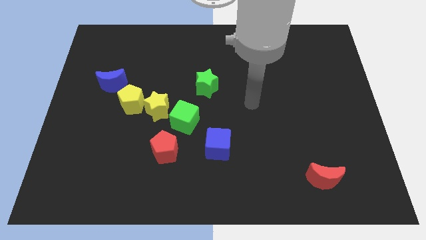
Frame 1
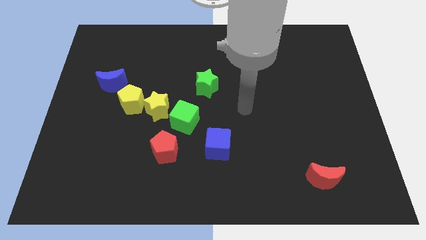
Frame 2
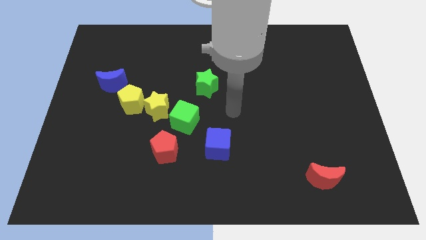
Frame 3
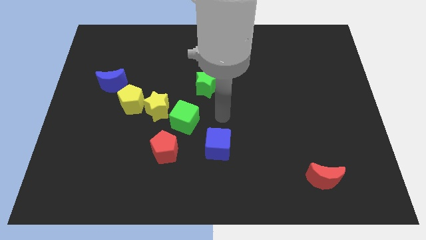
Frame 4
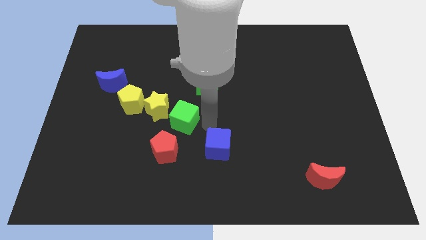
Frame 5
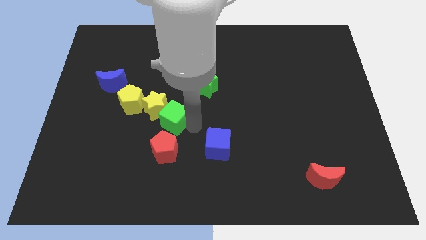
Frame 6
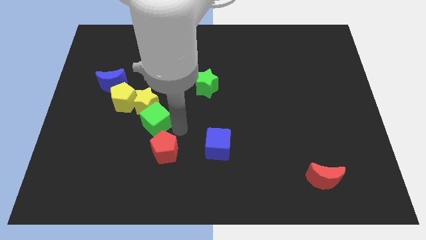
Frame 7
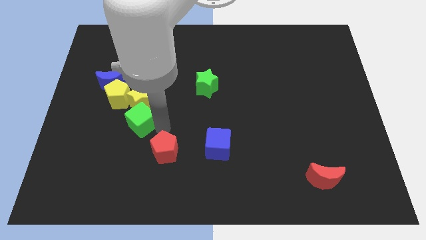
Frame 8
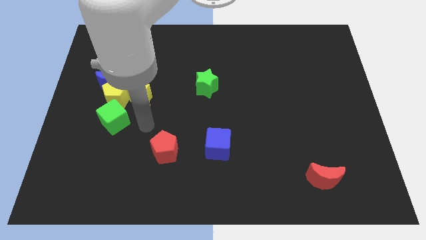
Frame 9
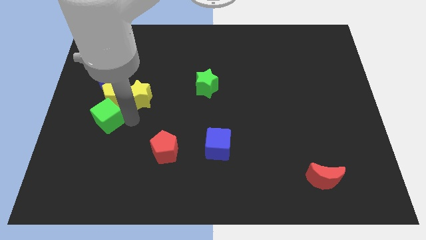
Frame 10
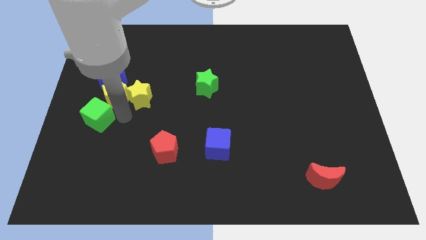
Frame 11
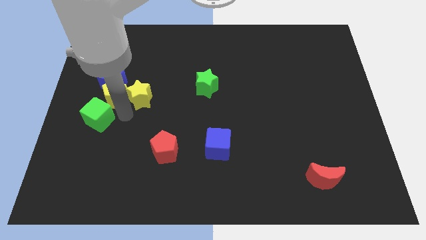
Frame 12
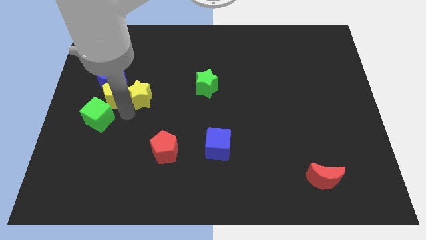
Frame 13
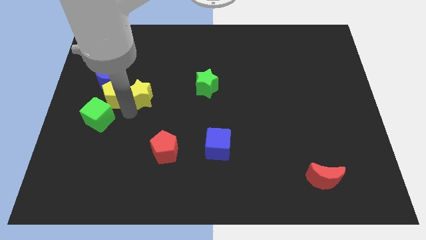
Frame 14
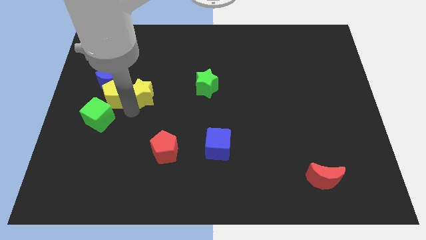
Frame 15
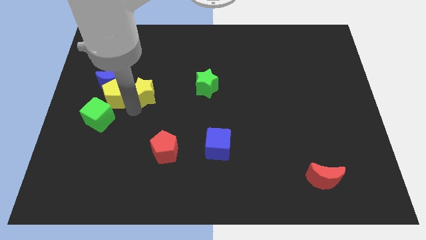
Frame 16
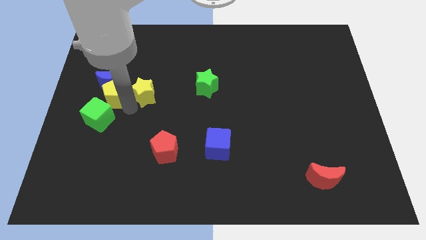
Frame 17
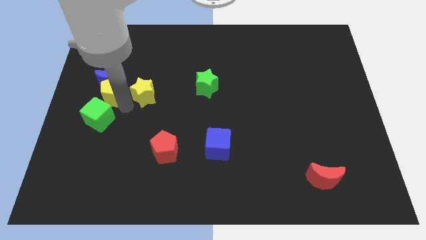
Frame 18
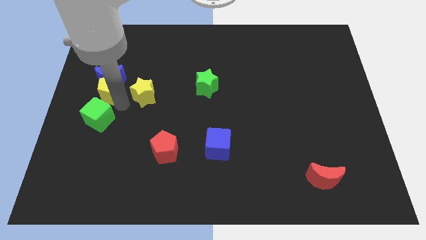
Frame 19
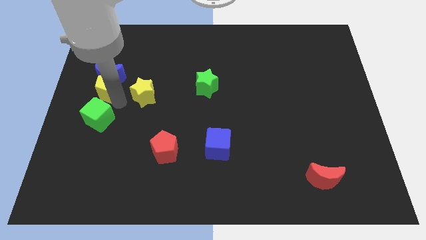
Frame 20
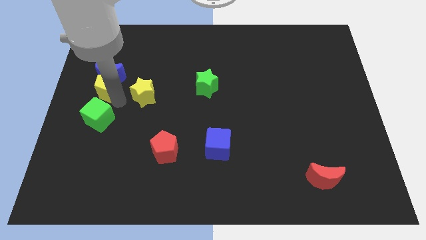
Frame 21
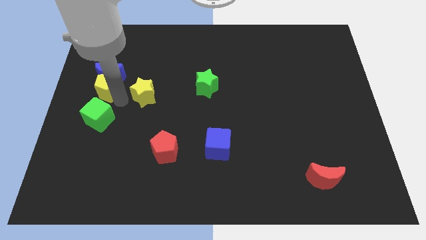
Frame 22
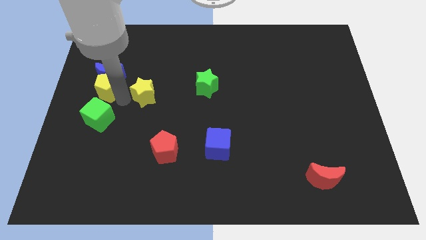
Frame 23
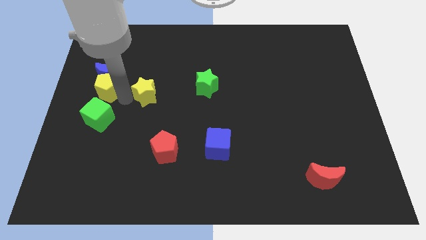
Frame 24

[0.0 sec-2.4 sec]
separate the yellow star from the yellow pentagon and green cube

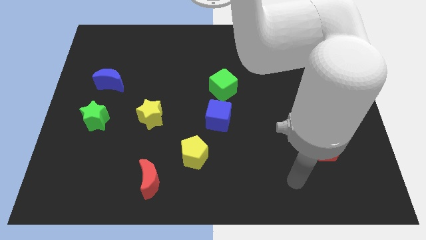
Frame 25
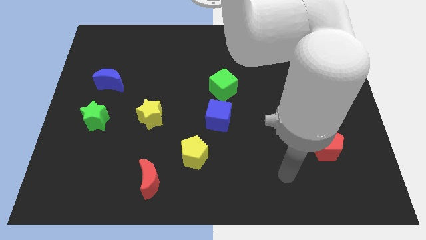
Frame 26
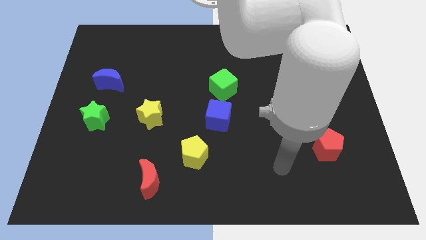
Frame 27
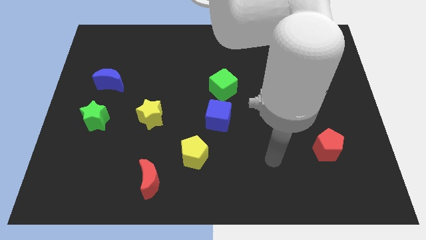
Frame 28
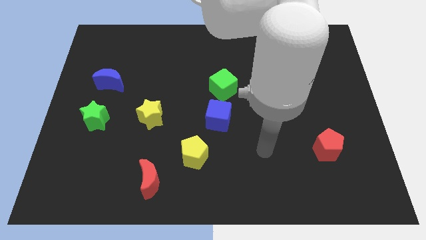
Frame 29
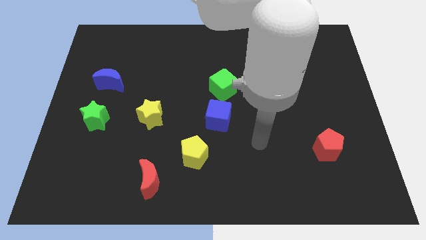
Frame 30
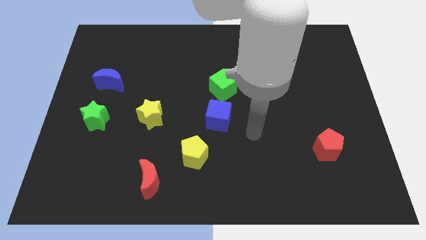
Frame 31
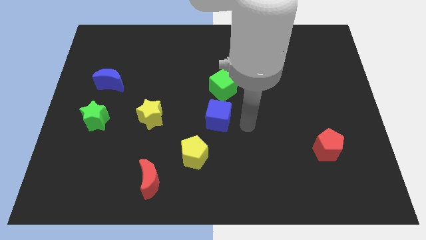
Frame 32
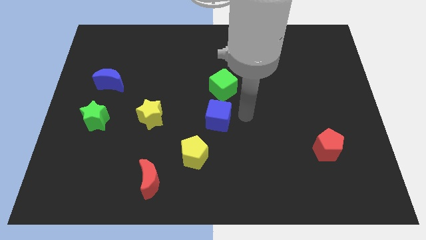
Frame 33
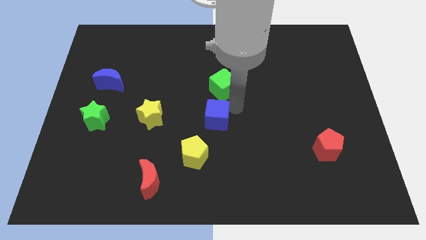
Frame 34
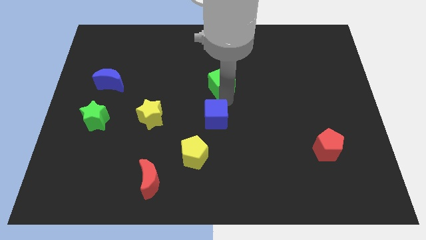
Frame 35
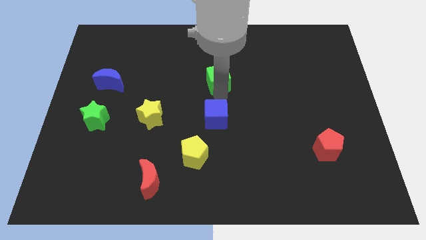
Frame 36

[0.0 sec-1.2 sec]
pull the blue cube apart from the green cube

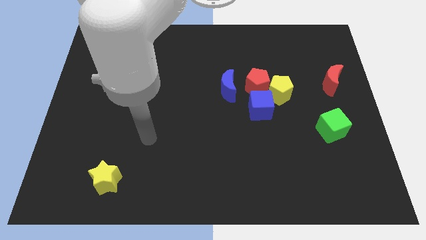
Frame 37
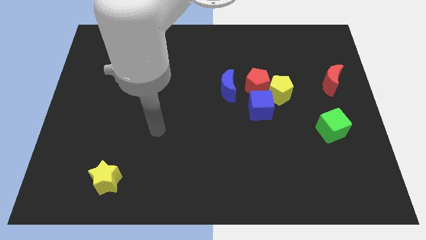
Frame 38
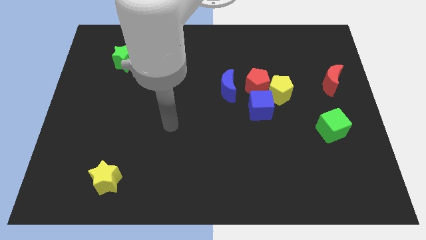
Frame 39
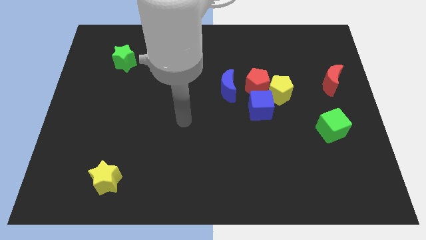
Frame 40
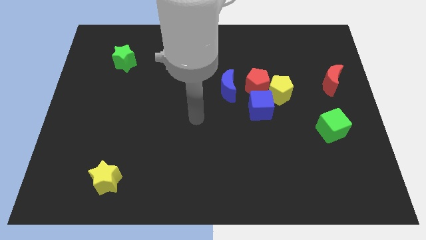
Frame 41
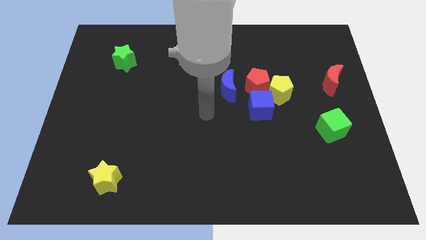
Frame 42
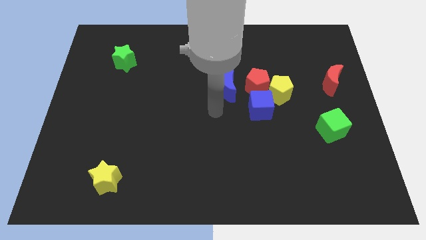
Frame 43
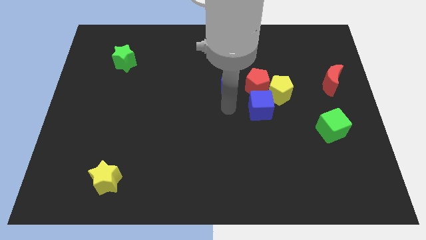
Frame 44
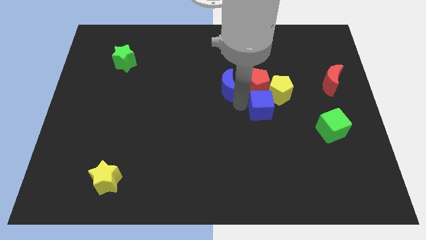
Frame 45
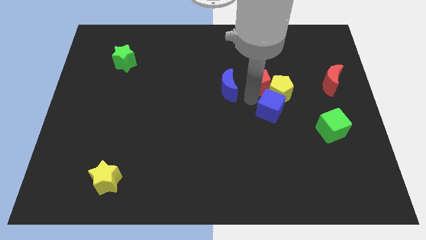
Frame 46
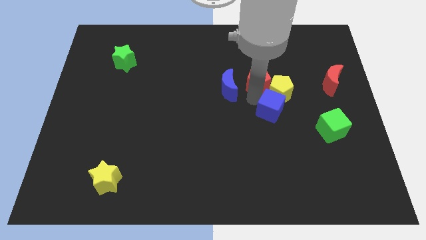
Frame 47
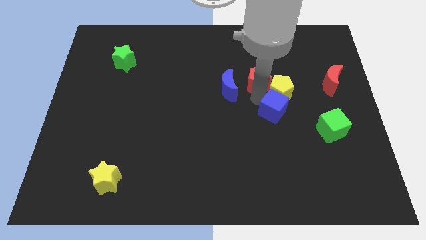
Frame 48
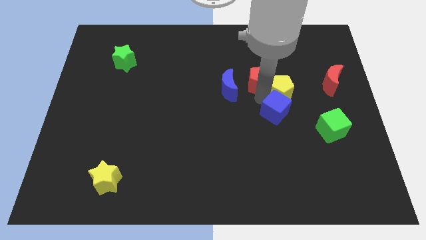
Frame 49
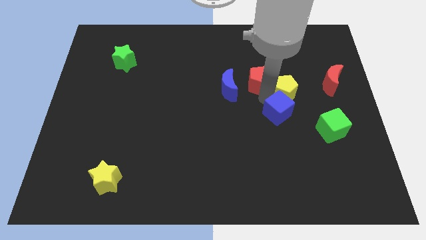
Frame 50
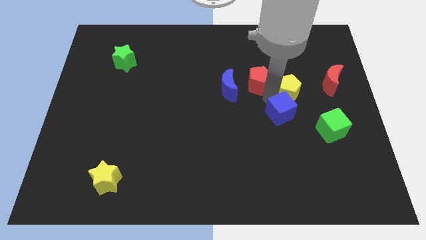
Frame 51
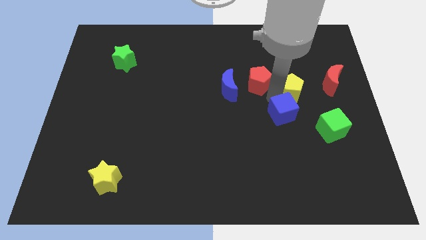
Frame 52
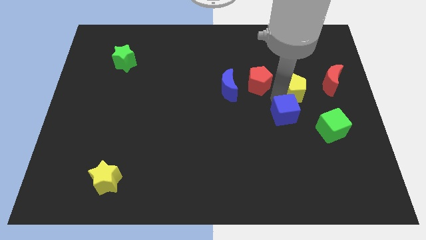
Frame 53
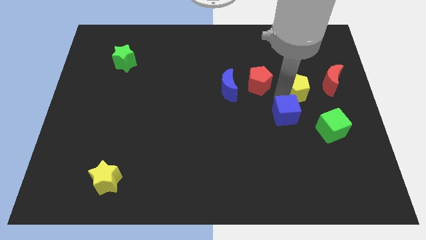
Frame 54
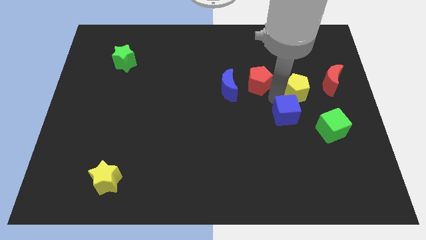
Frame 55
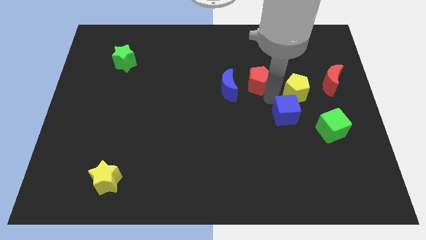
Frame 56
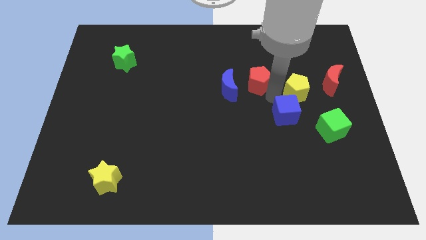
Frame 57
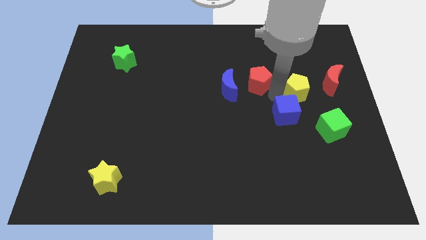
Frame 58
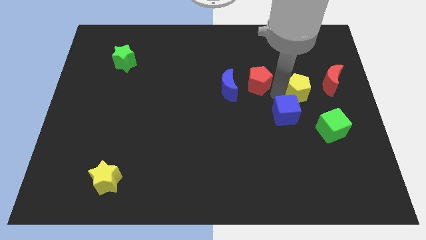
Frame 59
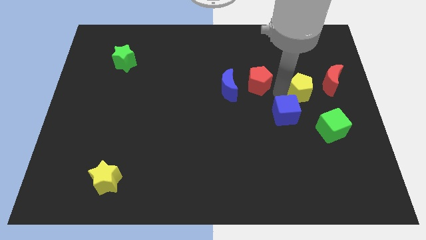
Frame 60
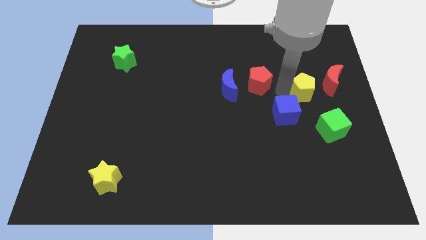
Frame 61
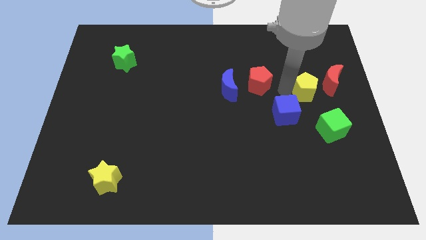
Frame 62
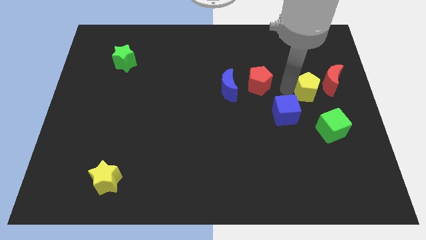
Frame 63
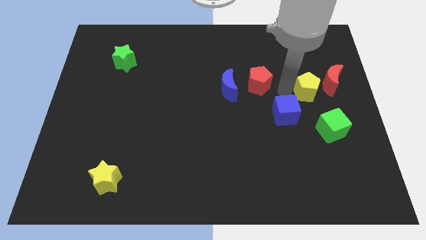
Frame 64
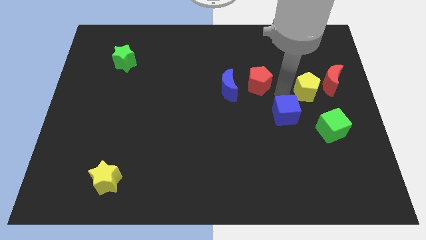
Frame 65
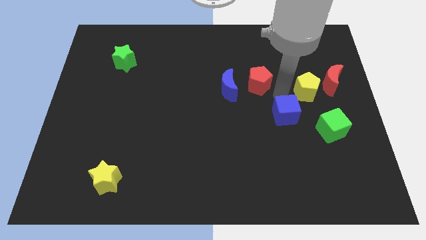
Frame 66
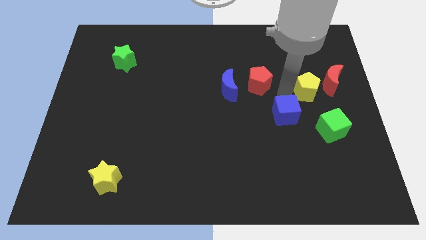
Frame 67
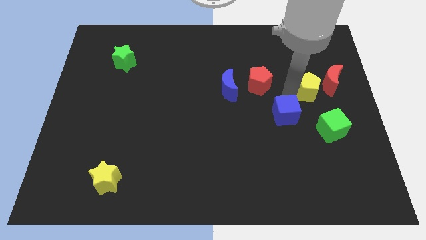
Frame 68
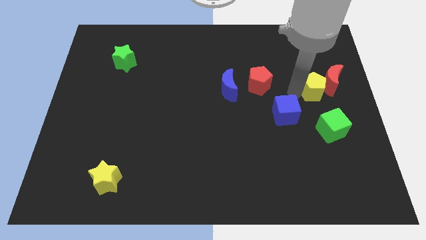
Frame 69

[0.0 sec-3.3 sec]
separate the yellow pentagon from the red pentagon and blue cube

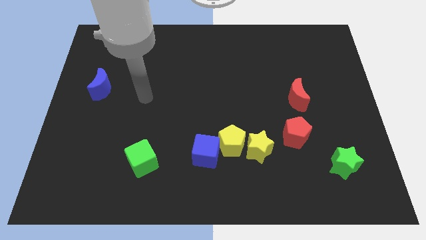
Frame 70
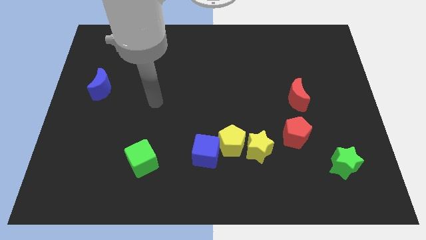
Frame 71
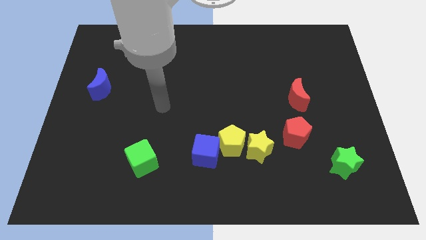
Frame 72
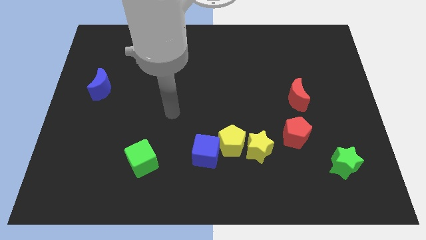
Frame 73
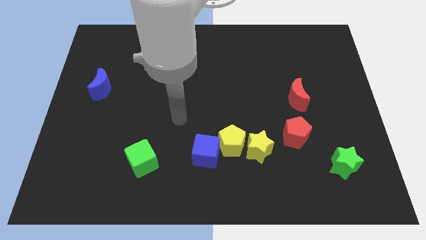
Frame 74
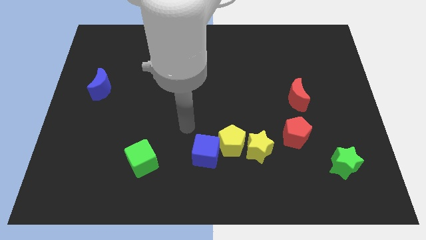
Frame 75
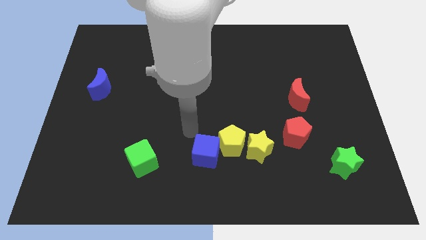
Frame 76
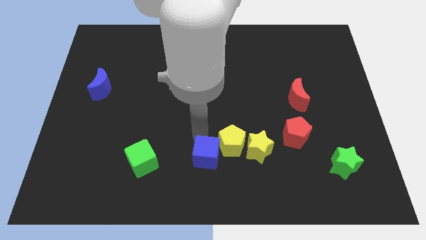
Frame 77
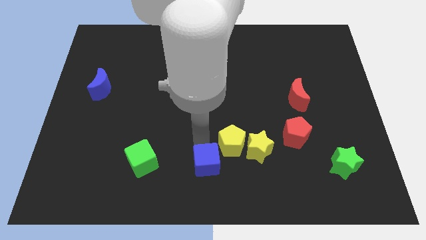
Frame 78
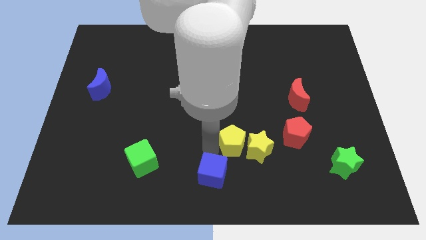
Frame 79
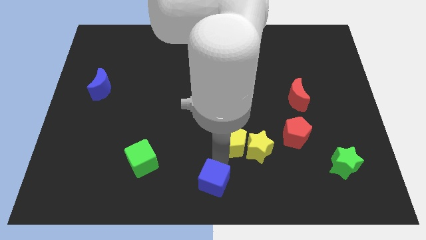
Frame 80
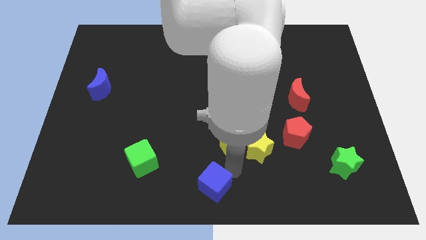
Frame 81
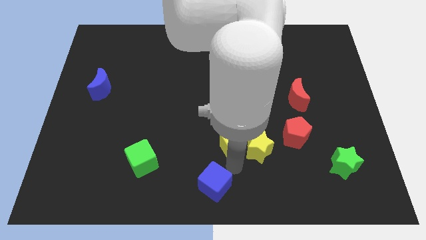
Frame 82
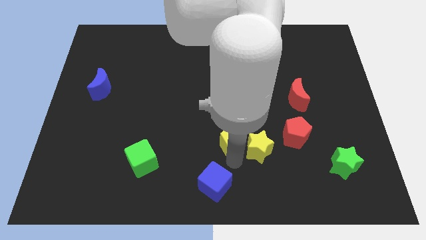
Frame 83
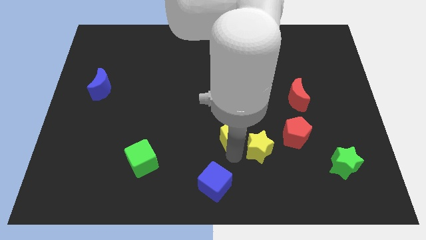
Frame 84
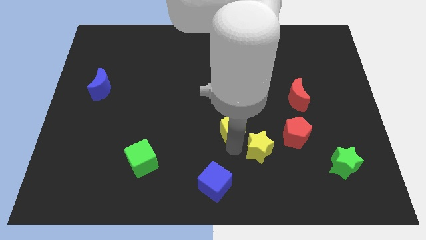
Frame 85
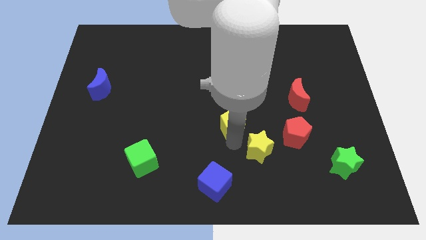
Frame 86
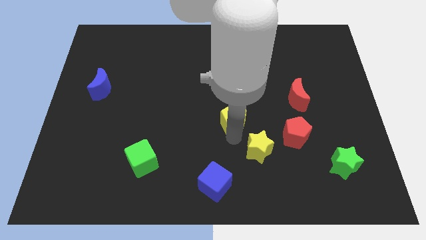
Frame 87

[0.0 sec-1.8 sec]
separate the yellow pentagon from the yellow star and blue cube

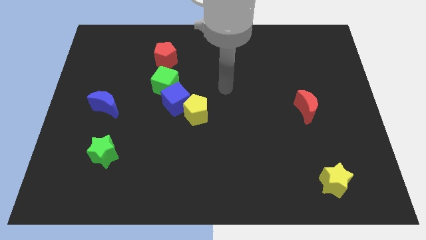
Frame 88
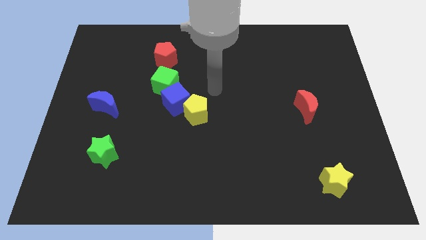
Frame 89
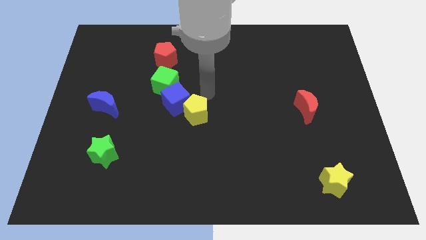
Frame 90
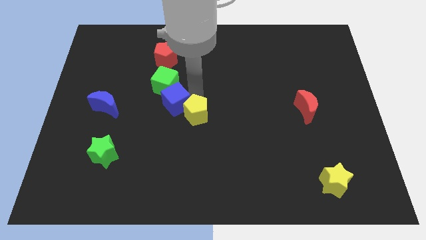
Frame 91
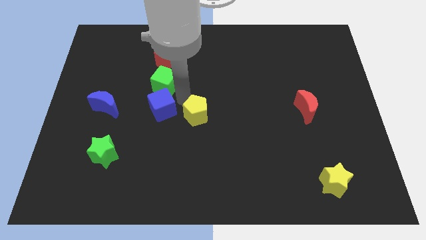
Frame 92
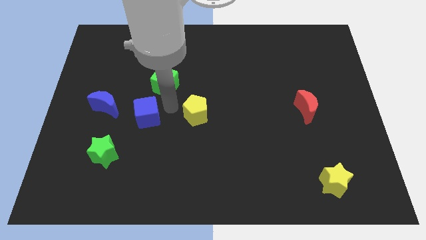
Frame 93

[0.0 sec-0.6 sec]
pull the yellow pentagon apart from the blue cube
